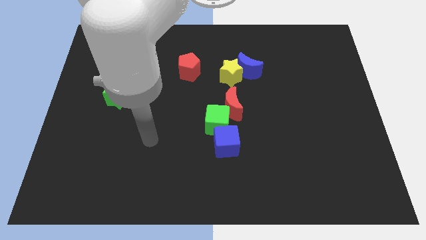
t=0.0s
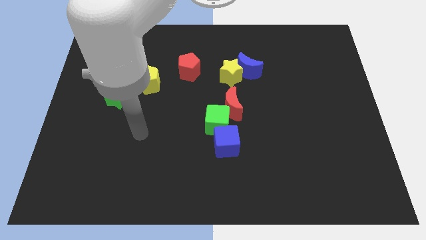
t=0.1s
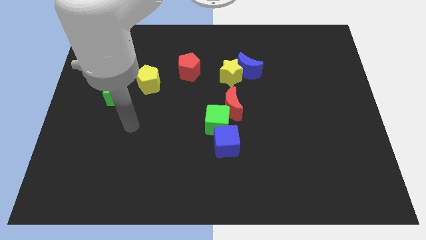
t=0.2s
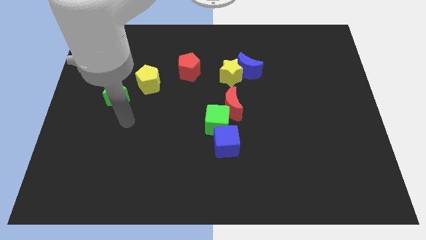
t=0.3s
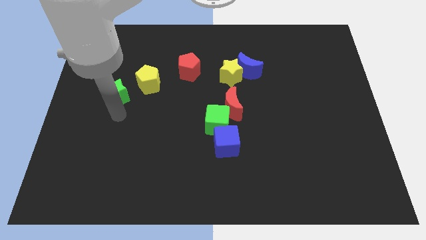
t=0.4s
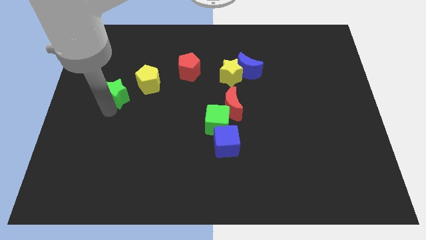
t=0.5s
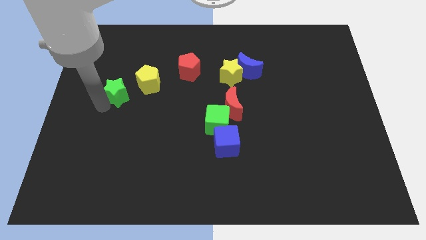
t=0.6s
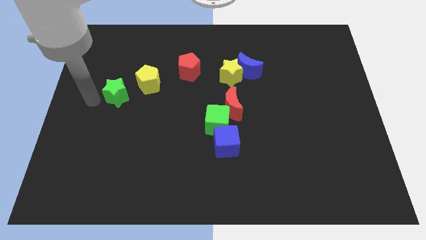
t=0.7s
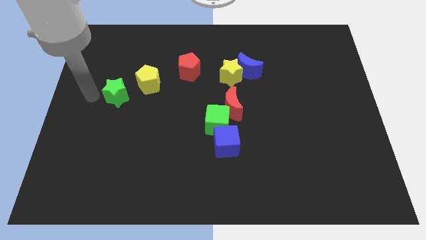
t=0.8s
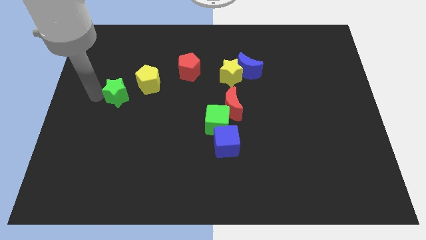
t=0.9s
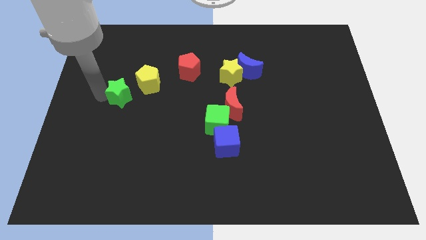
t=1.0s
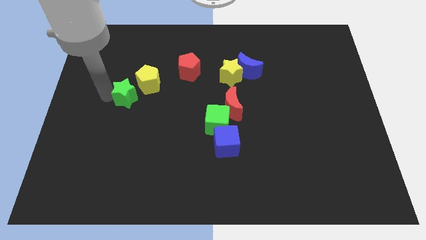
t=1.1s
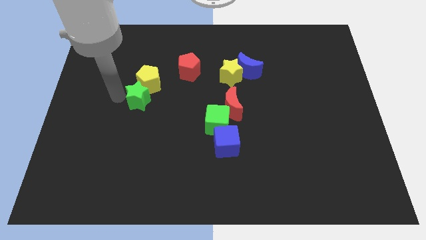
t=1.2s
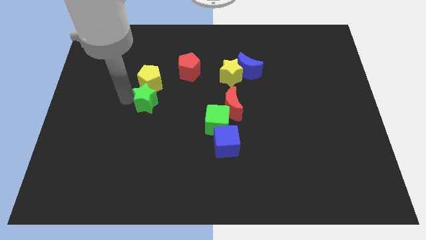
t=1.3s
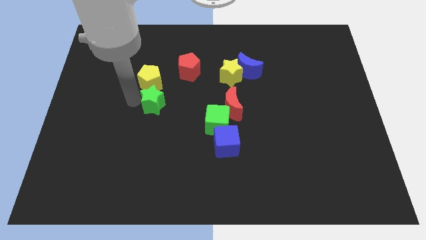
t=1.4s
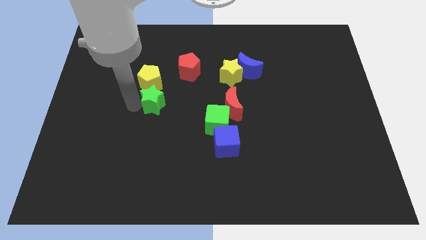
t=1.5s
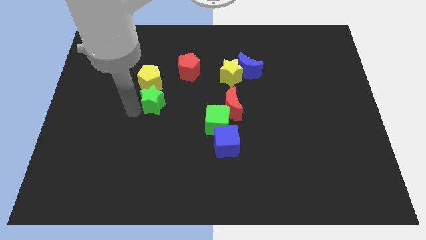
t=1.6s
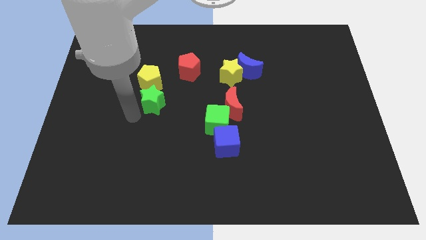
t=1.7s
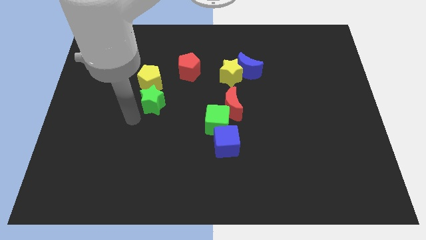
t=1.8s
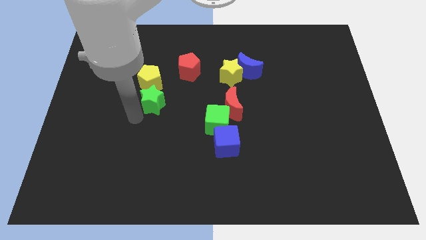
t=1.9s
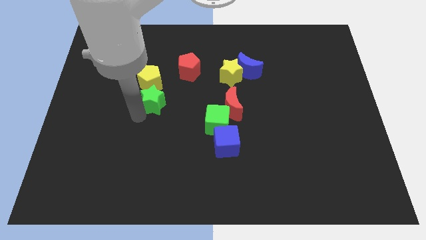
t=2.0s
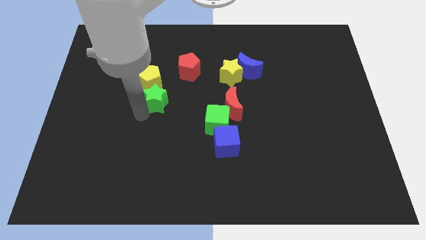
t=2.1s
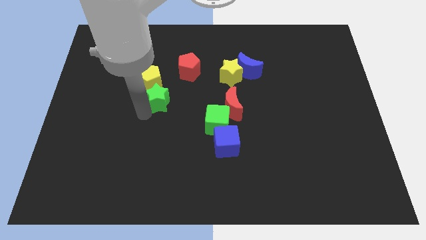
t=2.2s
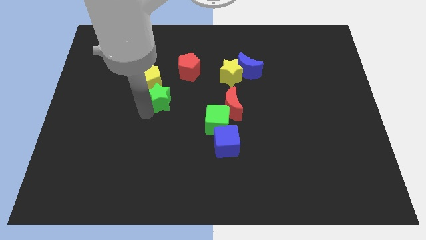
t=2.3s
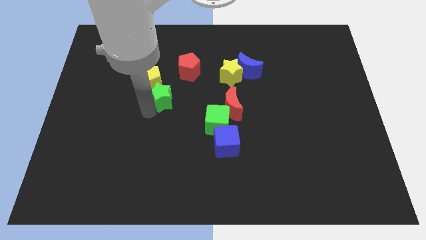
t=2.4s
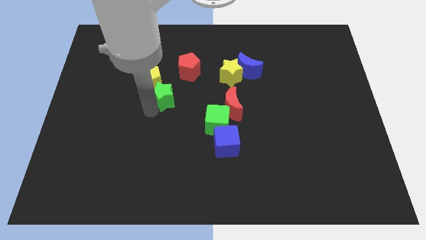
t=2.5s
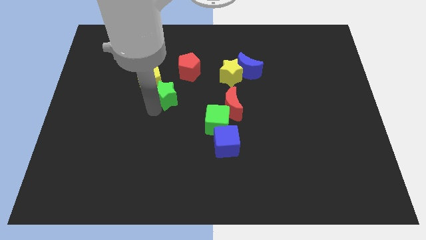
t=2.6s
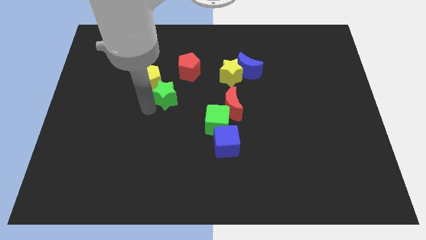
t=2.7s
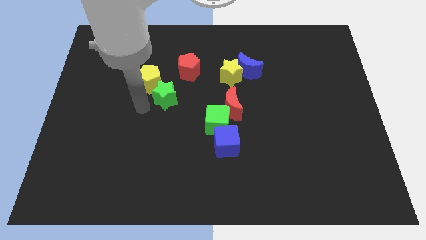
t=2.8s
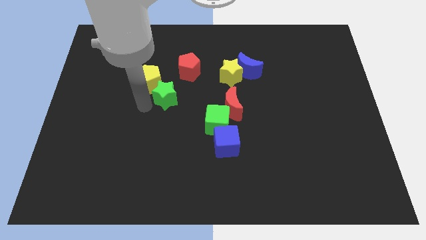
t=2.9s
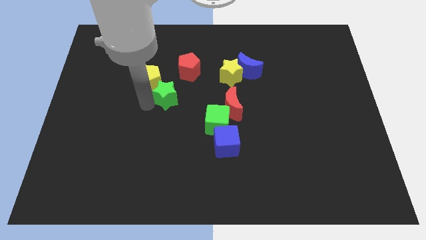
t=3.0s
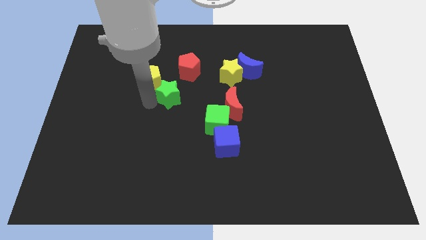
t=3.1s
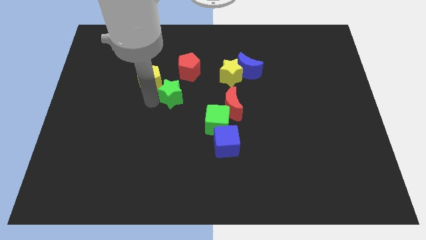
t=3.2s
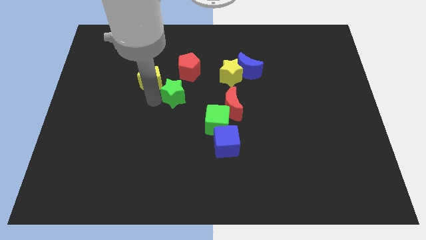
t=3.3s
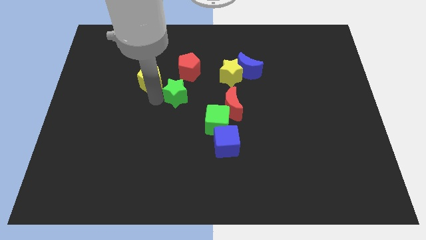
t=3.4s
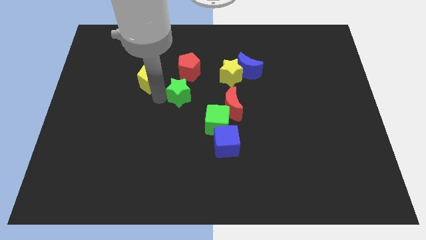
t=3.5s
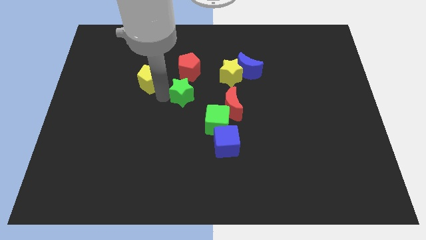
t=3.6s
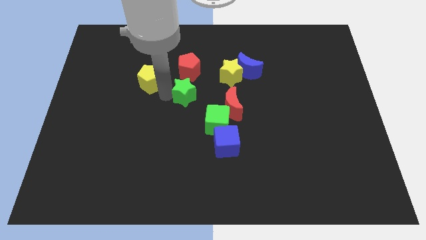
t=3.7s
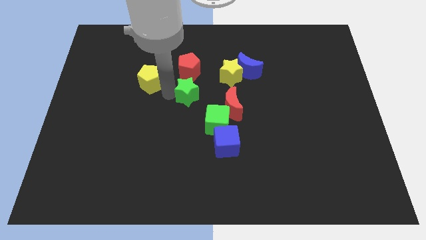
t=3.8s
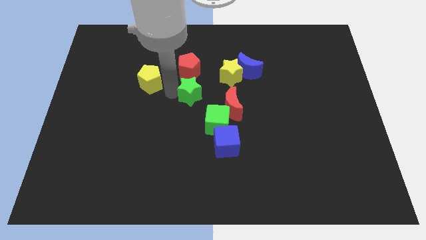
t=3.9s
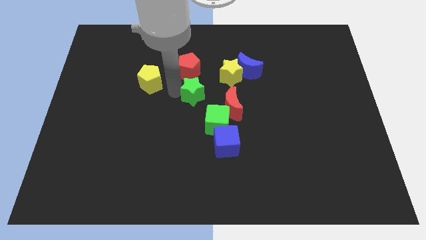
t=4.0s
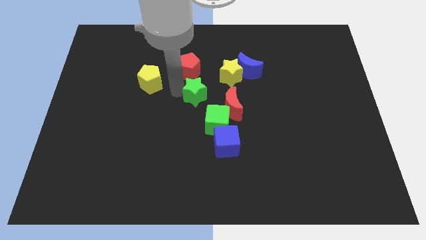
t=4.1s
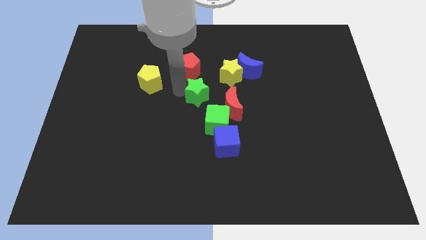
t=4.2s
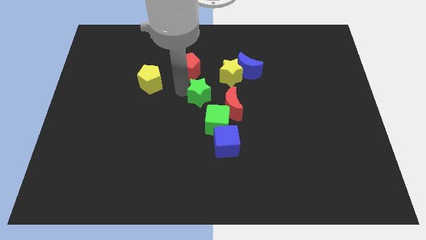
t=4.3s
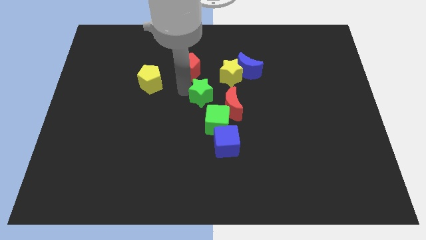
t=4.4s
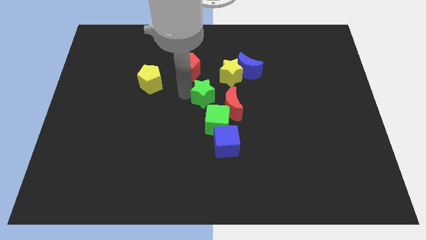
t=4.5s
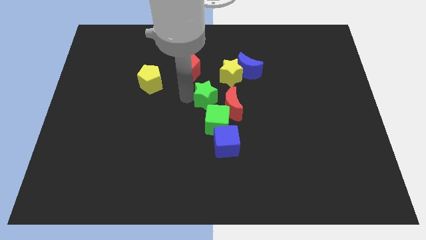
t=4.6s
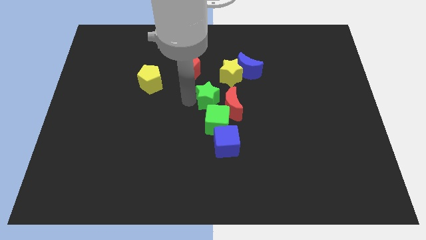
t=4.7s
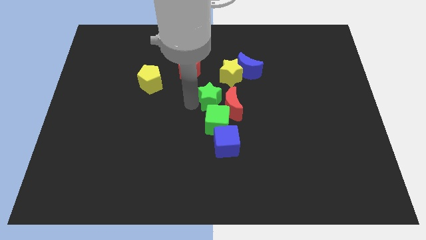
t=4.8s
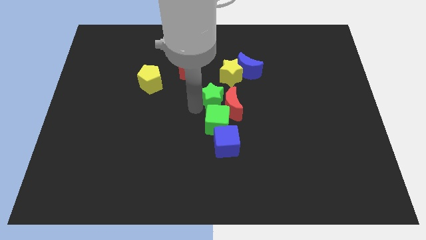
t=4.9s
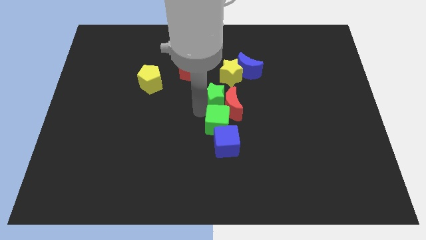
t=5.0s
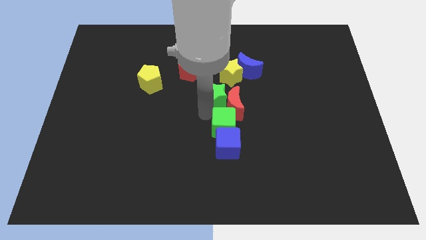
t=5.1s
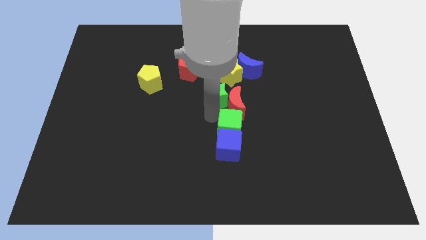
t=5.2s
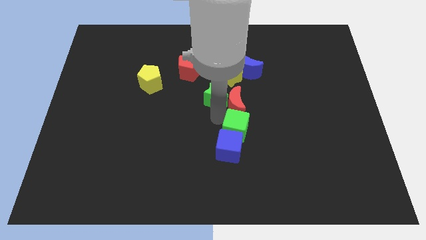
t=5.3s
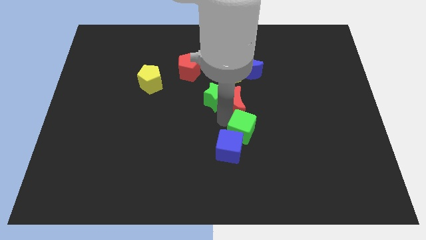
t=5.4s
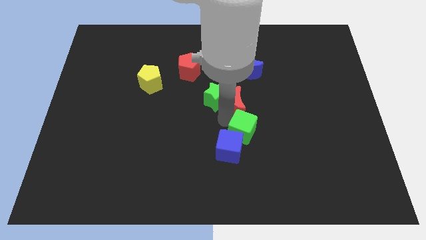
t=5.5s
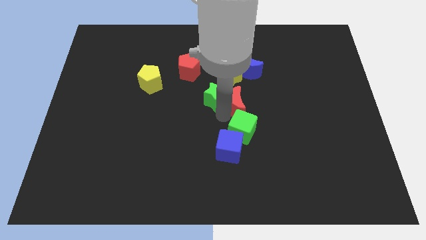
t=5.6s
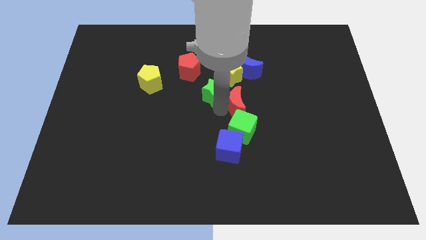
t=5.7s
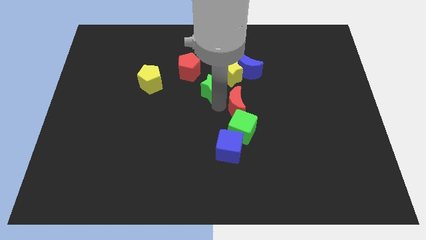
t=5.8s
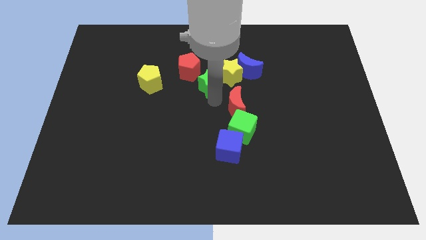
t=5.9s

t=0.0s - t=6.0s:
put the green star towards the yellow star
